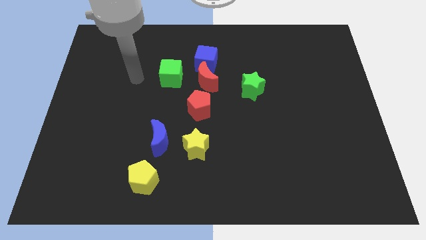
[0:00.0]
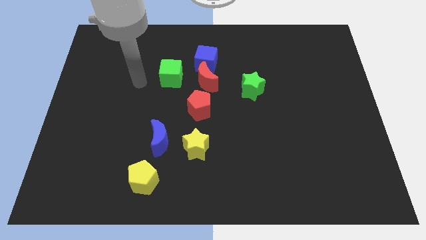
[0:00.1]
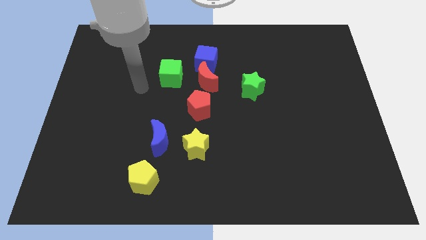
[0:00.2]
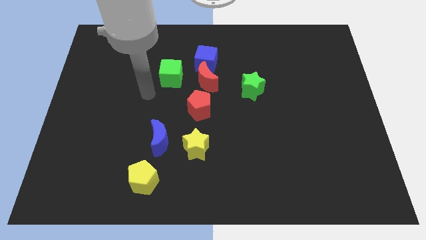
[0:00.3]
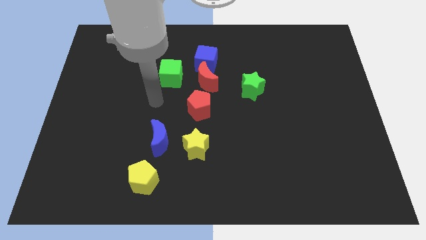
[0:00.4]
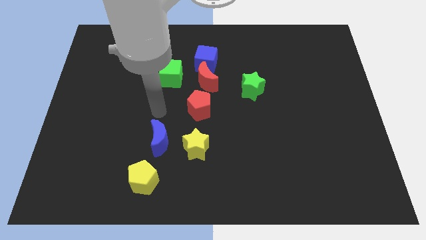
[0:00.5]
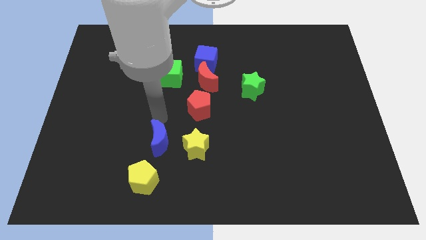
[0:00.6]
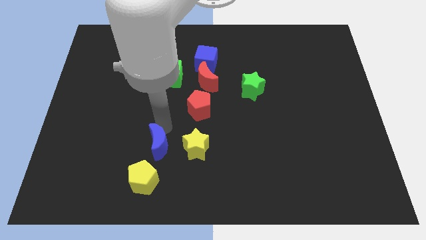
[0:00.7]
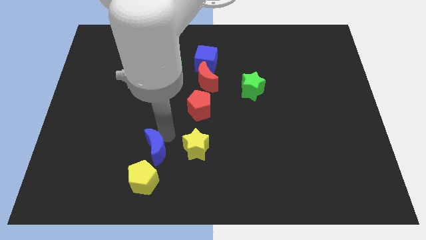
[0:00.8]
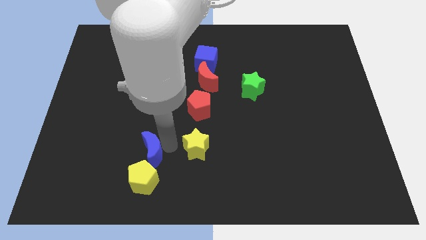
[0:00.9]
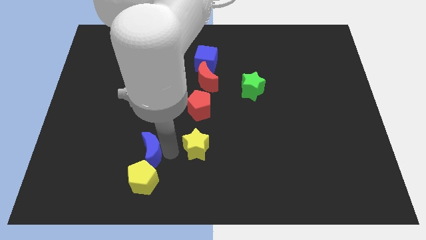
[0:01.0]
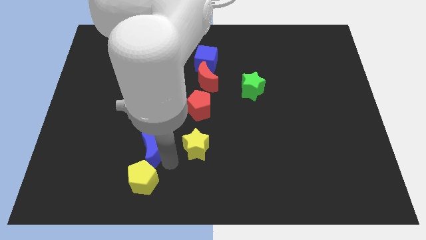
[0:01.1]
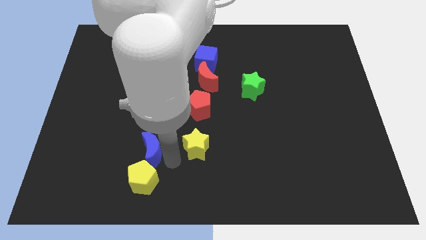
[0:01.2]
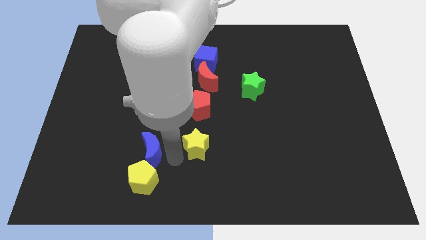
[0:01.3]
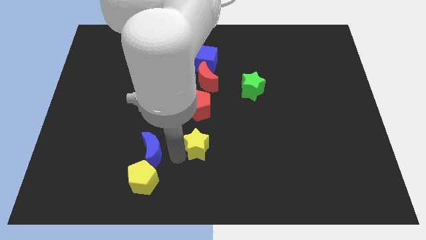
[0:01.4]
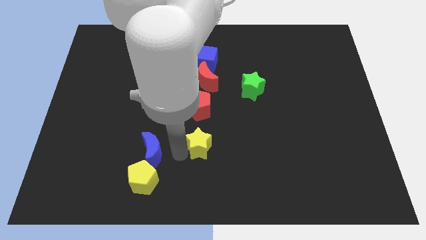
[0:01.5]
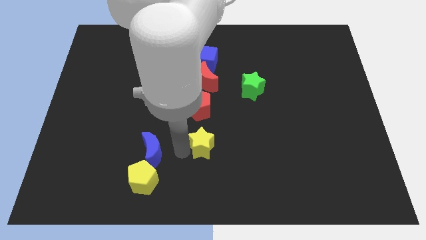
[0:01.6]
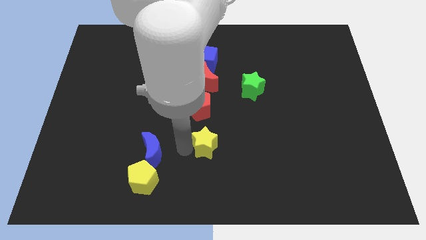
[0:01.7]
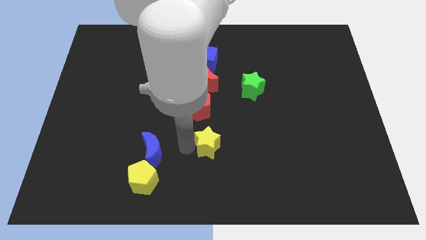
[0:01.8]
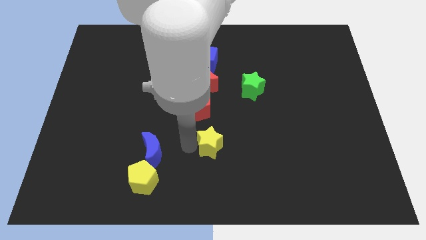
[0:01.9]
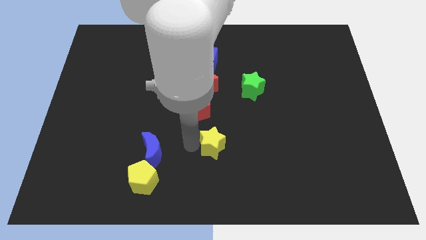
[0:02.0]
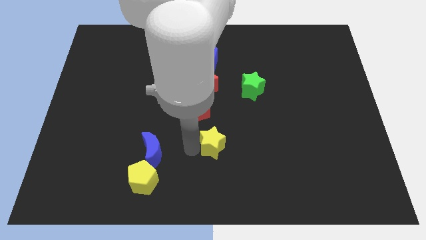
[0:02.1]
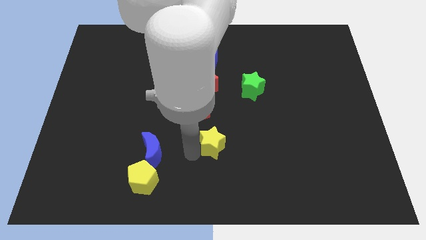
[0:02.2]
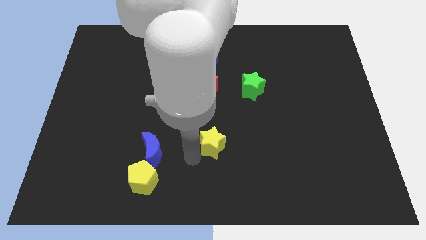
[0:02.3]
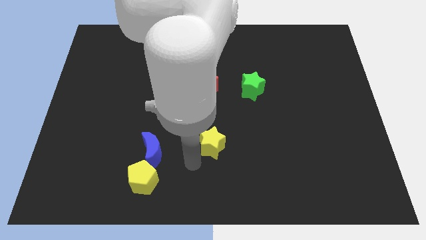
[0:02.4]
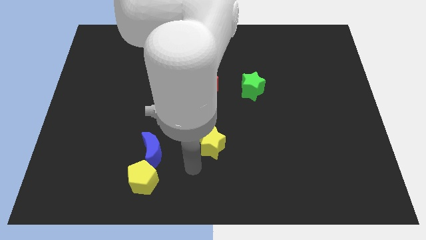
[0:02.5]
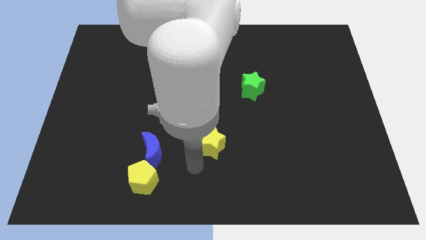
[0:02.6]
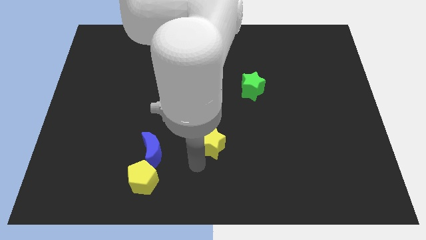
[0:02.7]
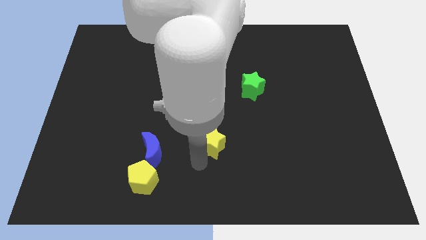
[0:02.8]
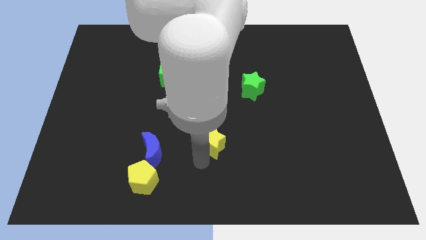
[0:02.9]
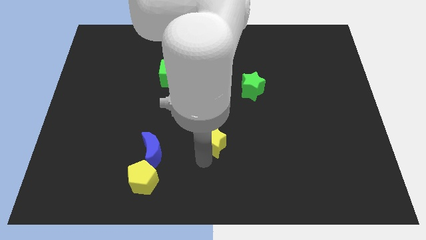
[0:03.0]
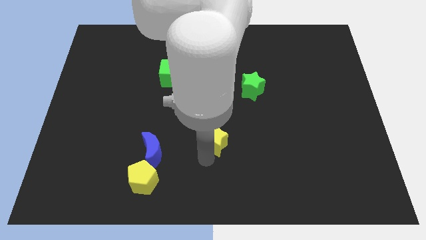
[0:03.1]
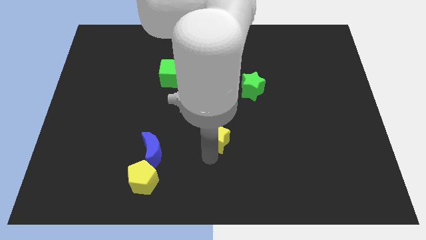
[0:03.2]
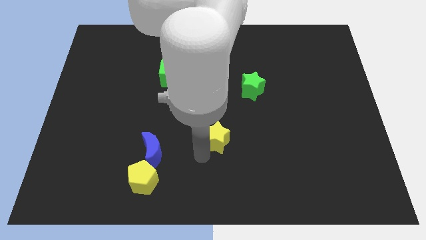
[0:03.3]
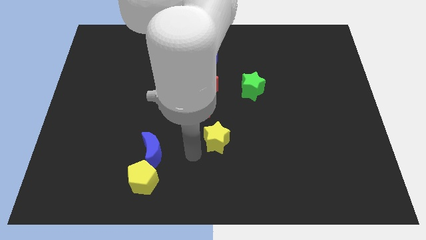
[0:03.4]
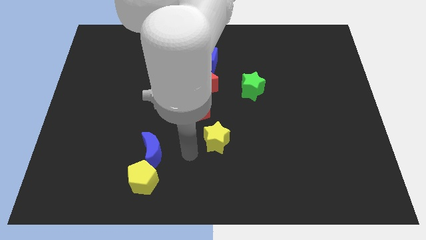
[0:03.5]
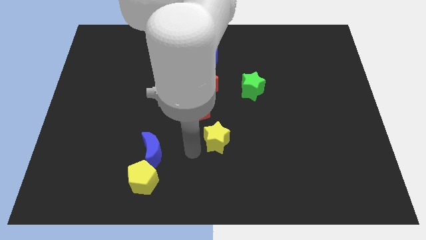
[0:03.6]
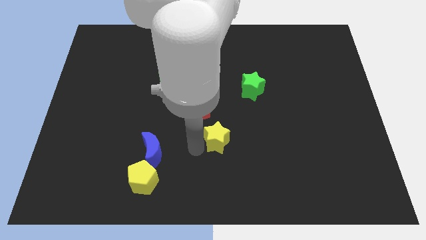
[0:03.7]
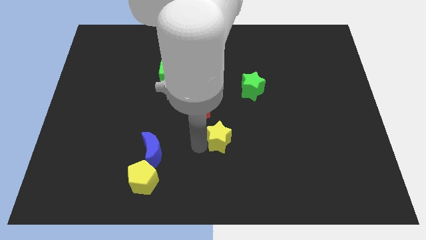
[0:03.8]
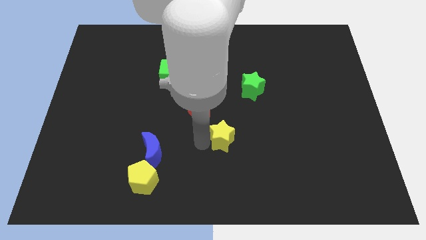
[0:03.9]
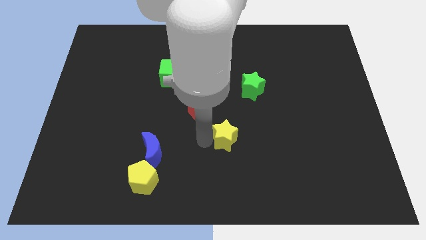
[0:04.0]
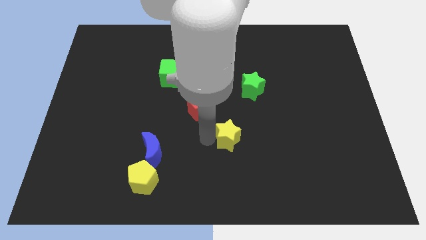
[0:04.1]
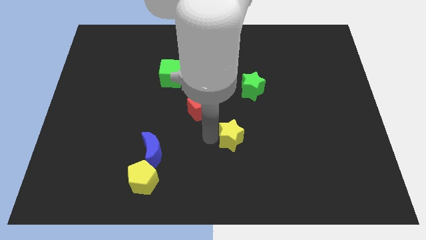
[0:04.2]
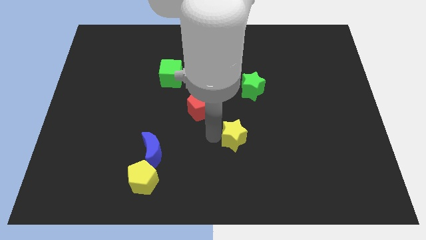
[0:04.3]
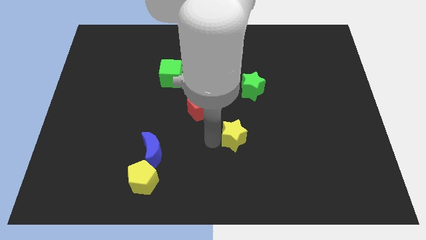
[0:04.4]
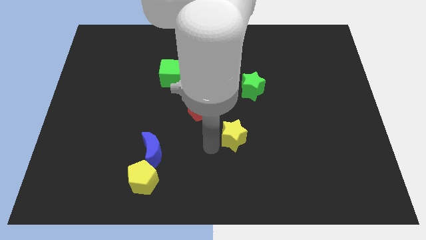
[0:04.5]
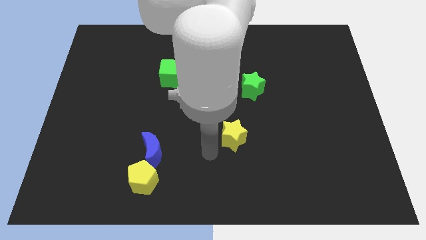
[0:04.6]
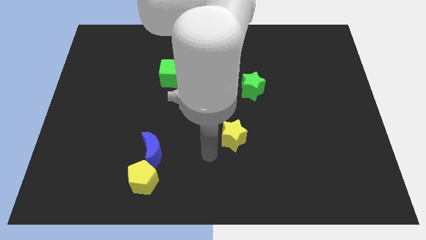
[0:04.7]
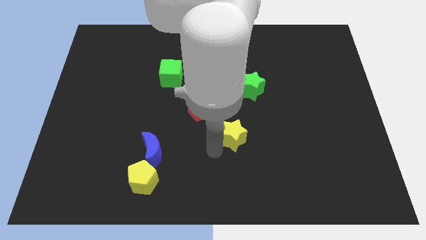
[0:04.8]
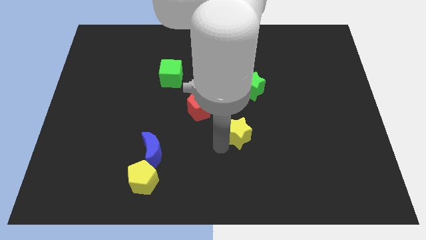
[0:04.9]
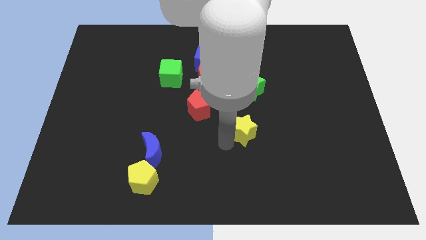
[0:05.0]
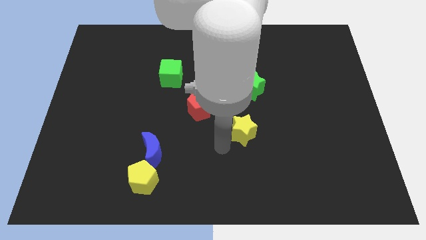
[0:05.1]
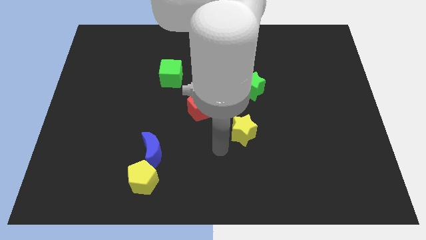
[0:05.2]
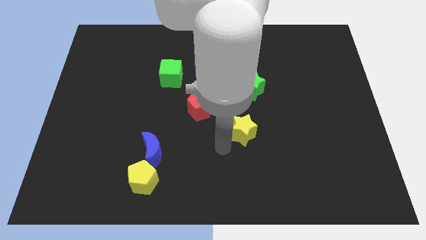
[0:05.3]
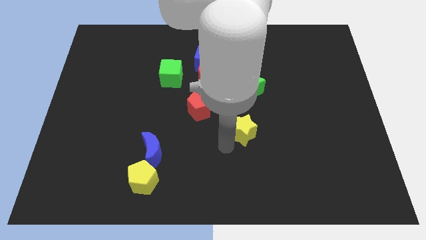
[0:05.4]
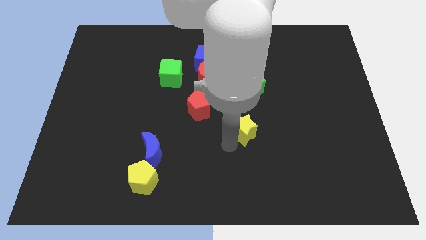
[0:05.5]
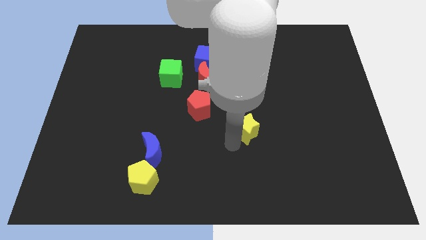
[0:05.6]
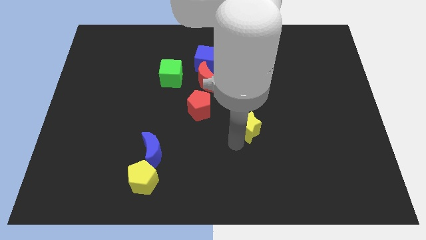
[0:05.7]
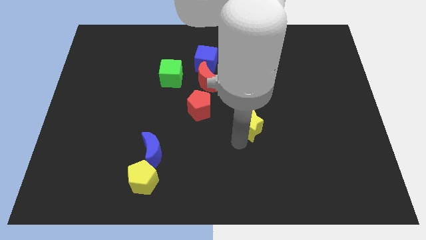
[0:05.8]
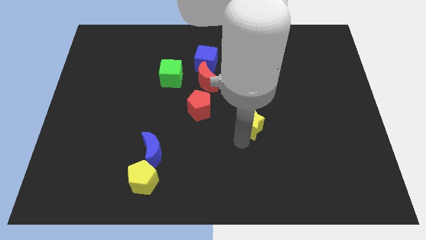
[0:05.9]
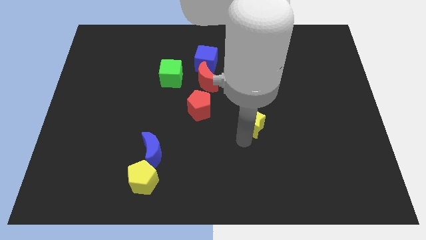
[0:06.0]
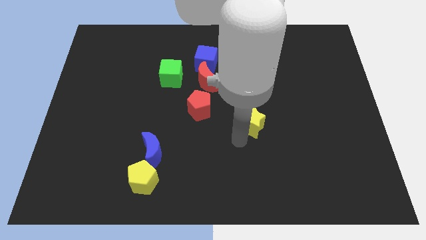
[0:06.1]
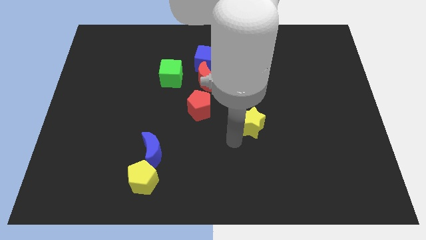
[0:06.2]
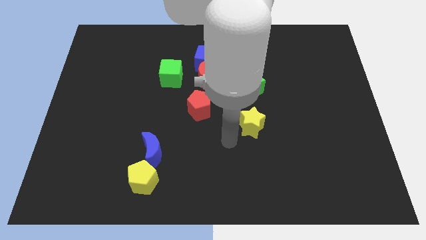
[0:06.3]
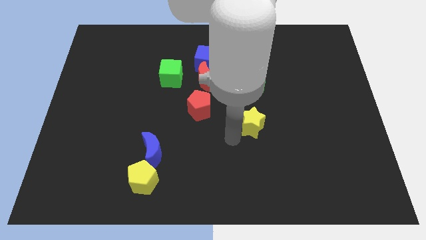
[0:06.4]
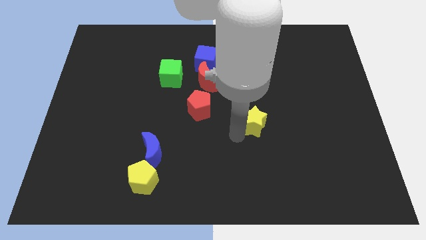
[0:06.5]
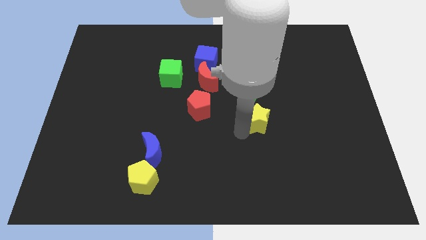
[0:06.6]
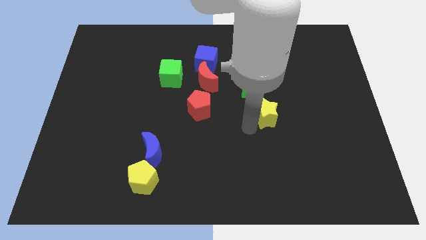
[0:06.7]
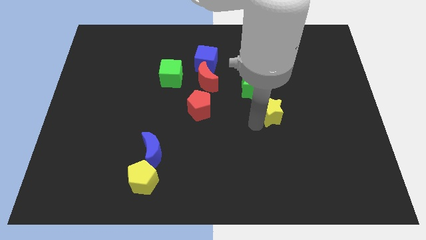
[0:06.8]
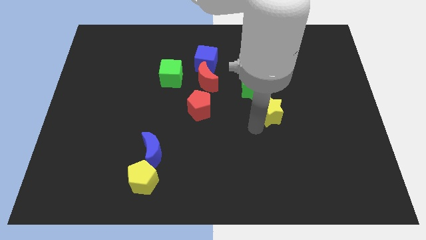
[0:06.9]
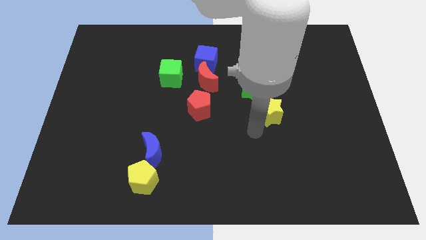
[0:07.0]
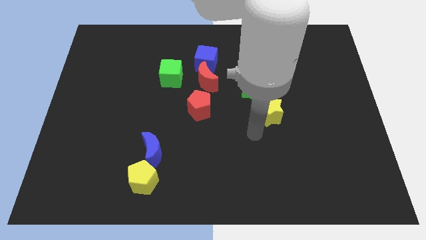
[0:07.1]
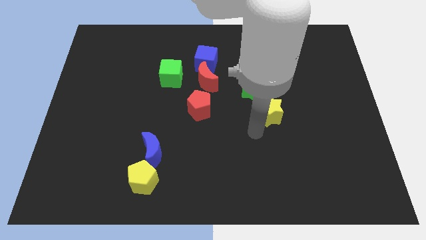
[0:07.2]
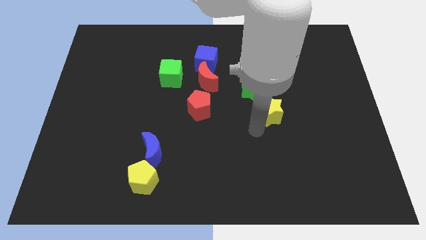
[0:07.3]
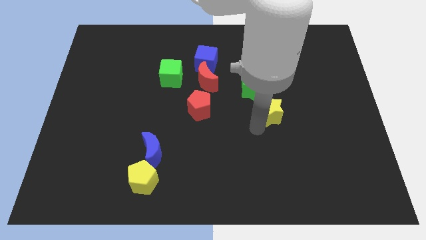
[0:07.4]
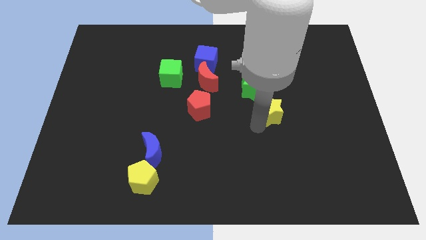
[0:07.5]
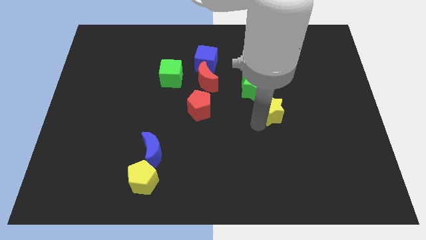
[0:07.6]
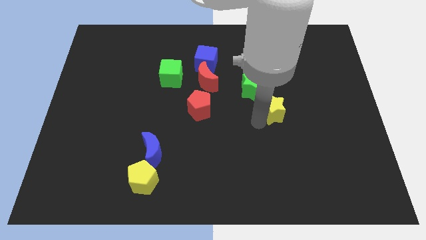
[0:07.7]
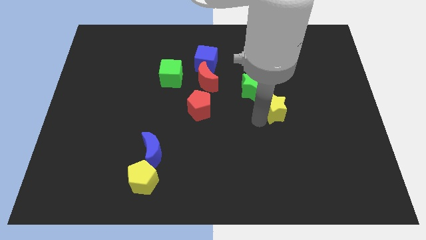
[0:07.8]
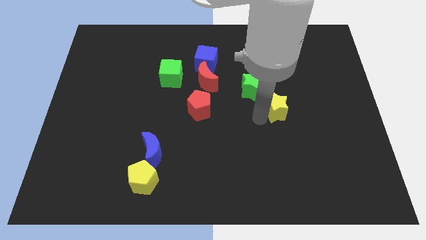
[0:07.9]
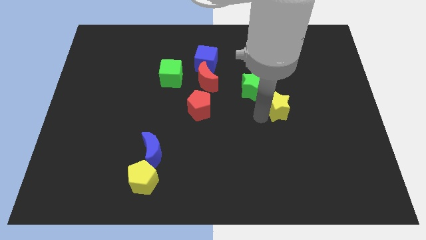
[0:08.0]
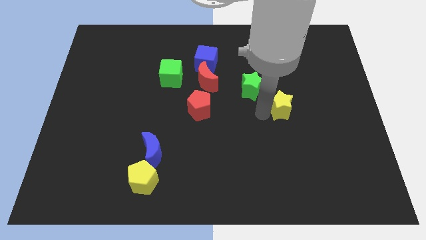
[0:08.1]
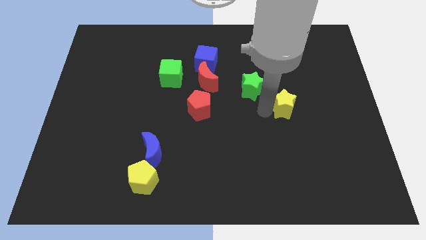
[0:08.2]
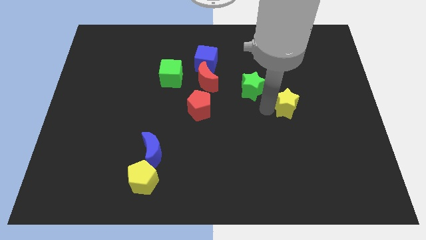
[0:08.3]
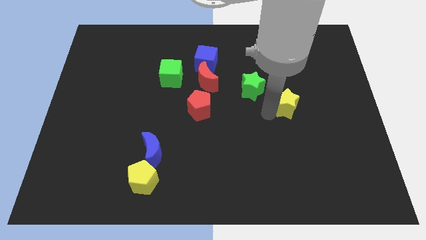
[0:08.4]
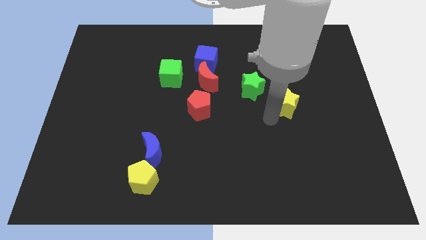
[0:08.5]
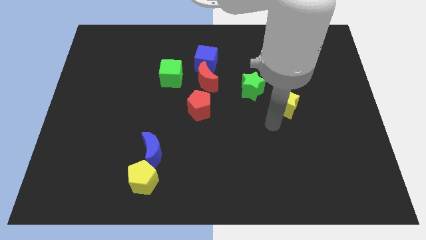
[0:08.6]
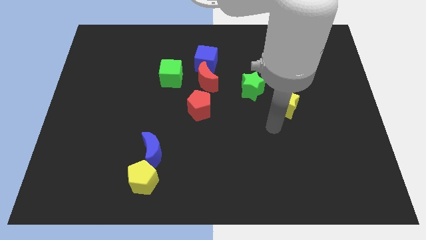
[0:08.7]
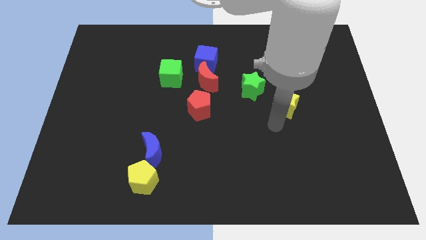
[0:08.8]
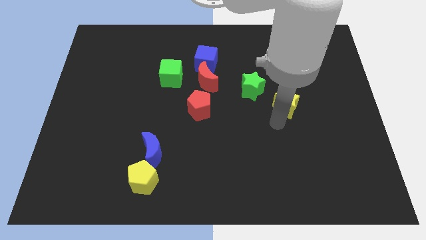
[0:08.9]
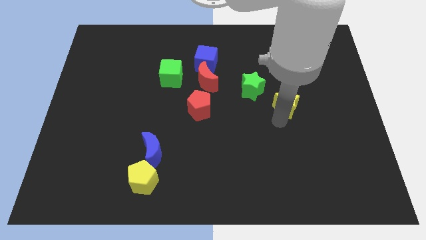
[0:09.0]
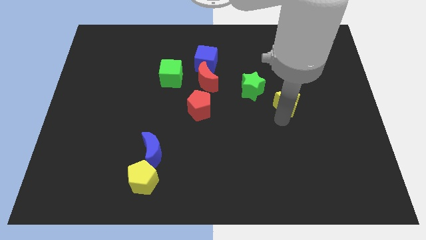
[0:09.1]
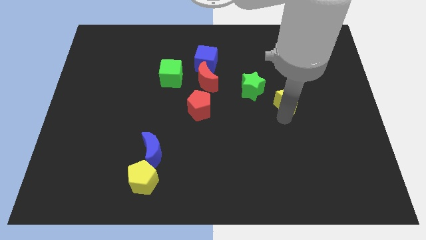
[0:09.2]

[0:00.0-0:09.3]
slide the yellow star to the right of the green star
